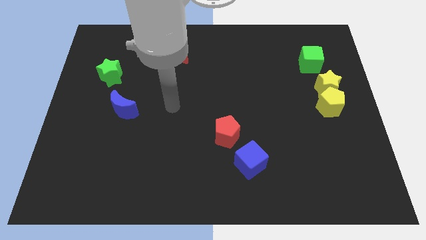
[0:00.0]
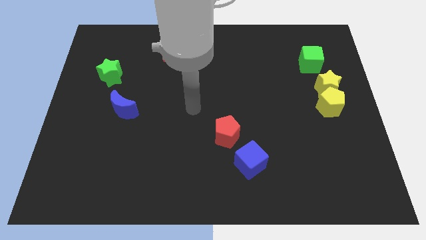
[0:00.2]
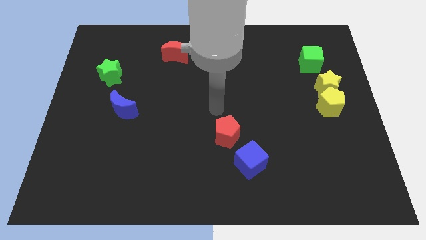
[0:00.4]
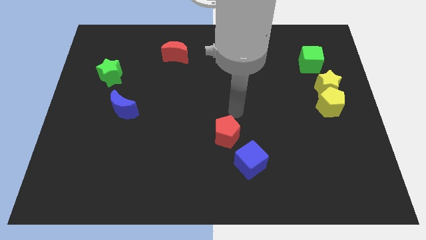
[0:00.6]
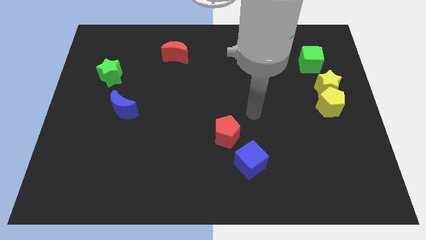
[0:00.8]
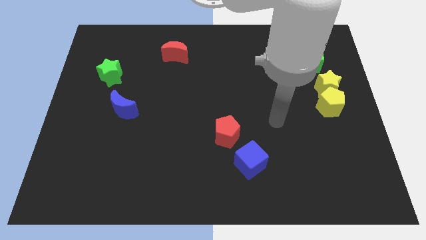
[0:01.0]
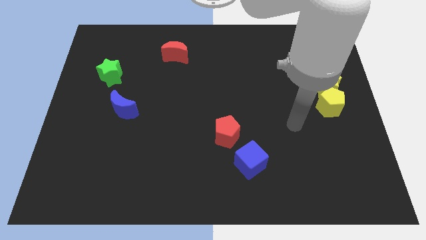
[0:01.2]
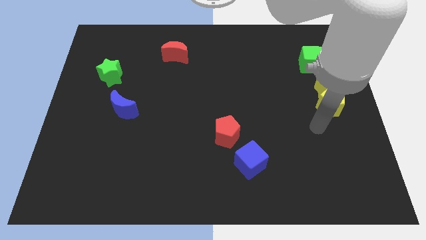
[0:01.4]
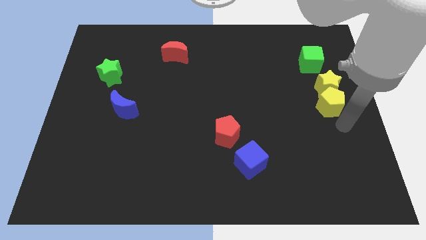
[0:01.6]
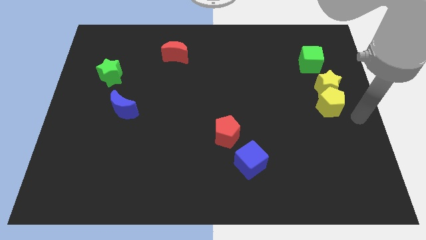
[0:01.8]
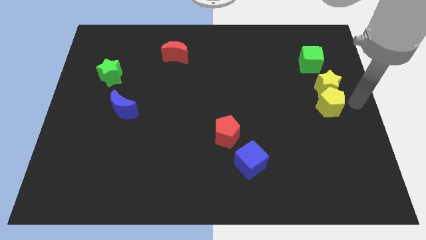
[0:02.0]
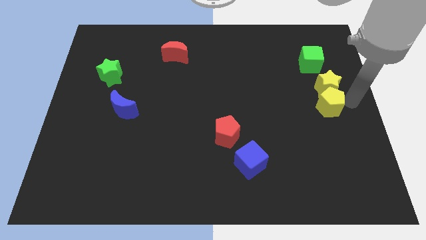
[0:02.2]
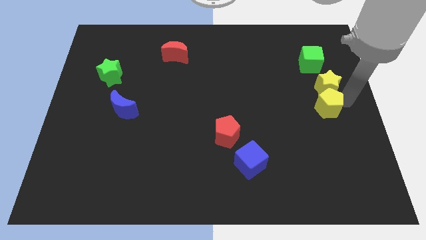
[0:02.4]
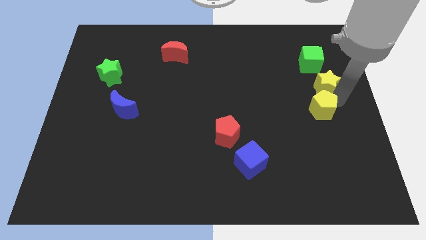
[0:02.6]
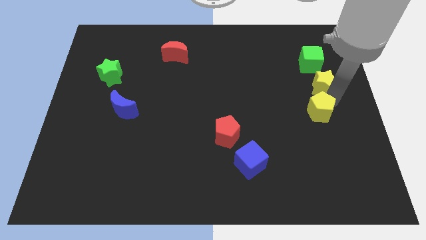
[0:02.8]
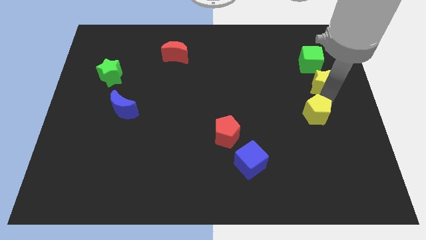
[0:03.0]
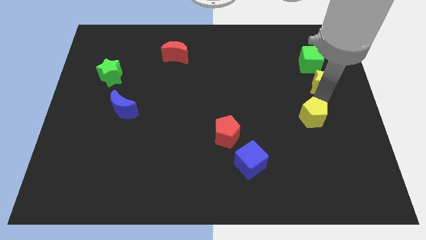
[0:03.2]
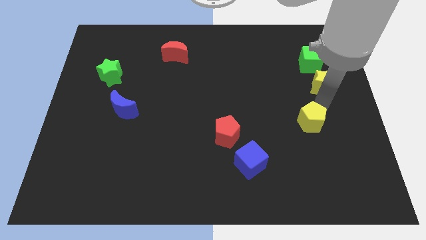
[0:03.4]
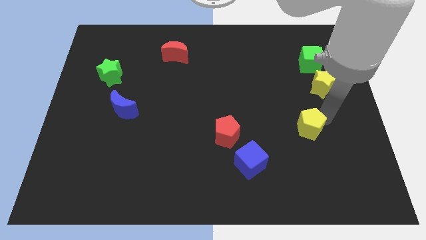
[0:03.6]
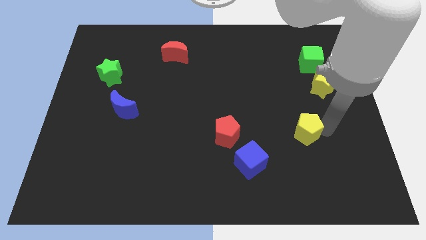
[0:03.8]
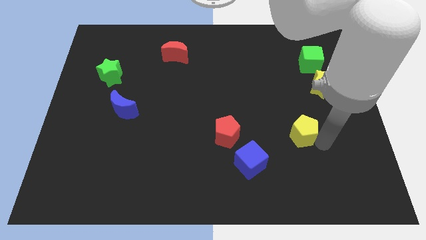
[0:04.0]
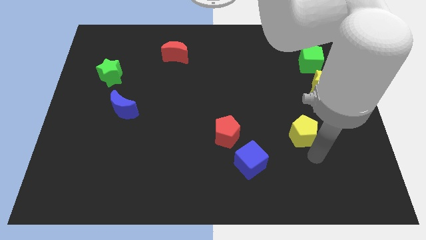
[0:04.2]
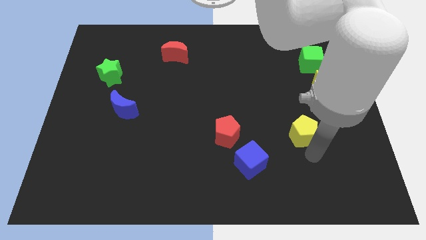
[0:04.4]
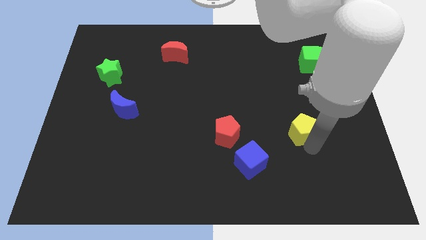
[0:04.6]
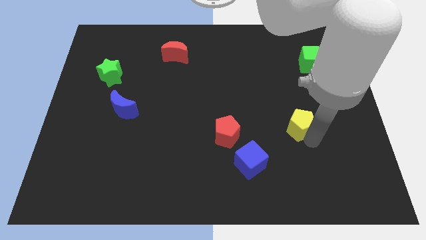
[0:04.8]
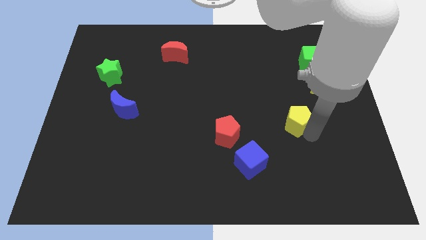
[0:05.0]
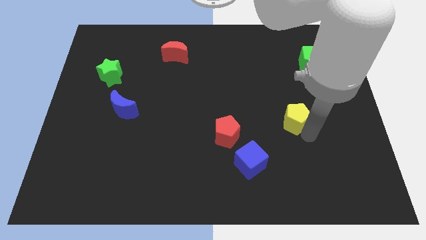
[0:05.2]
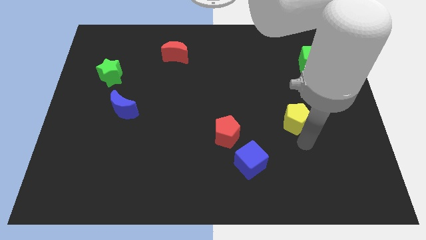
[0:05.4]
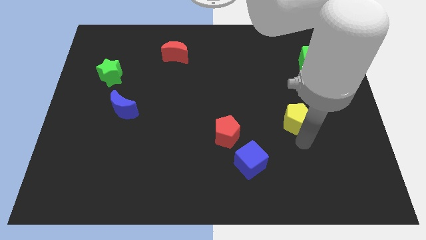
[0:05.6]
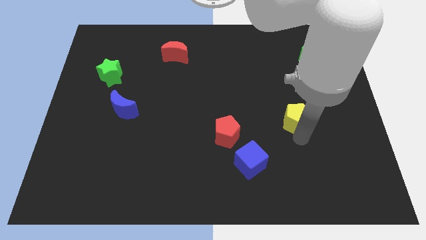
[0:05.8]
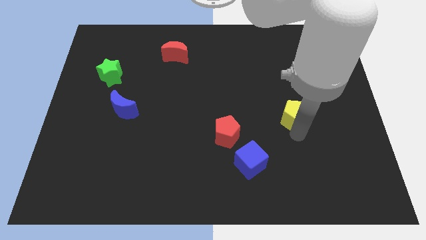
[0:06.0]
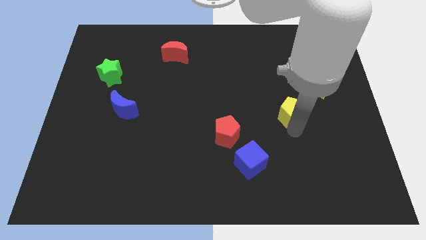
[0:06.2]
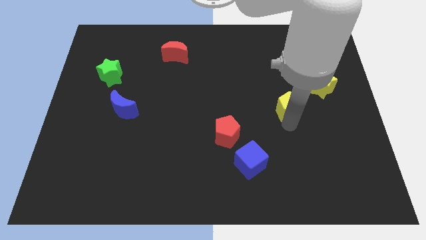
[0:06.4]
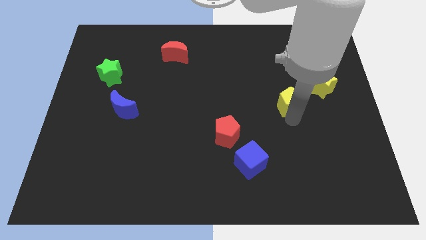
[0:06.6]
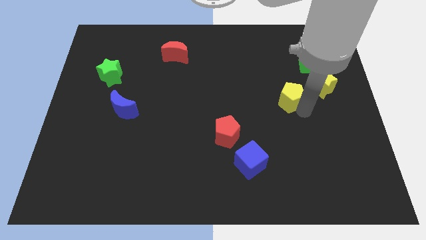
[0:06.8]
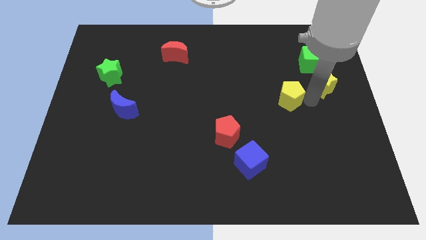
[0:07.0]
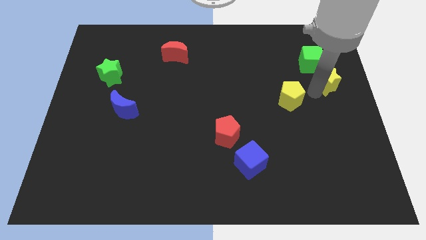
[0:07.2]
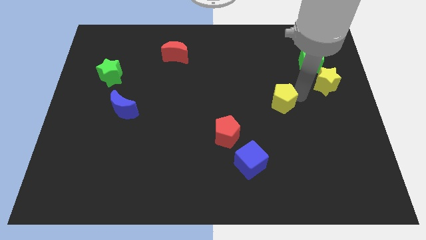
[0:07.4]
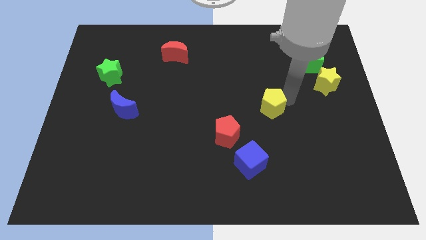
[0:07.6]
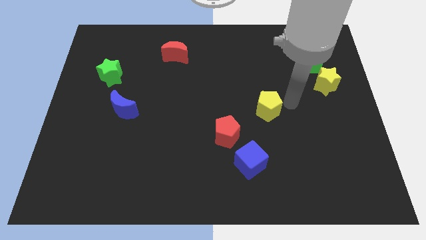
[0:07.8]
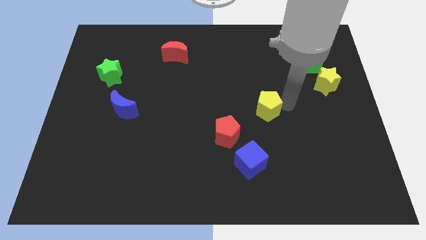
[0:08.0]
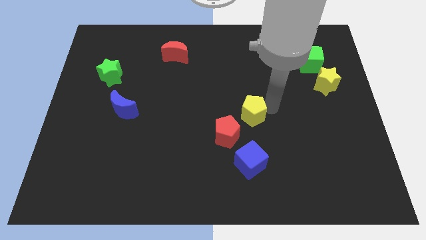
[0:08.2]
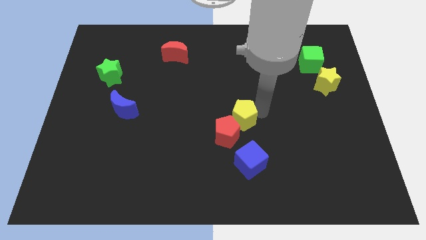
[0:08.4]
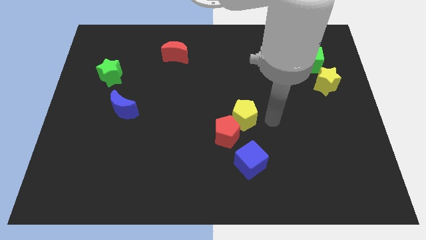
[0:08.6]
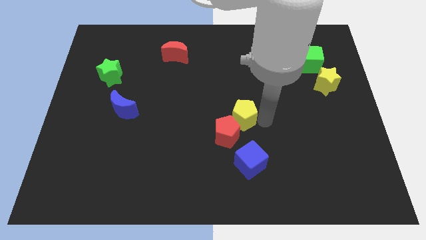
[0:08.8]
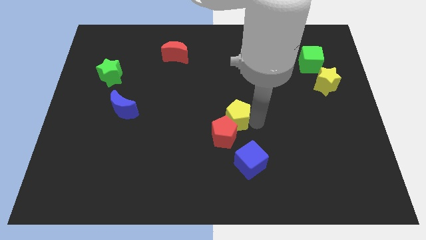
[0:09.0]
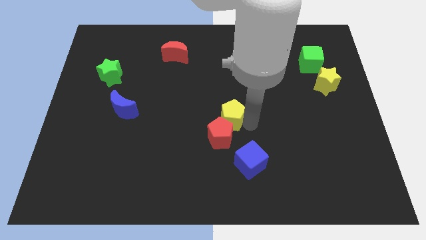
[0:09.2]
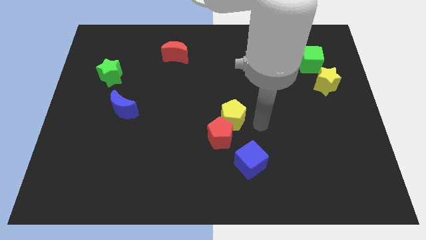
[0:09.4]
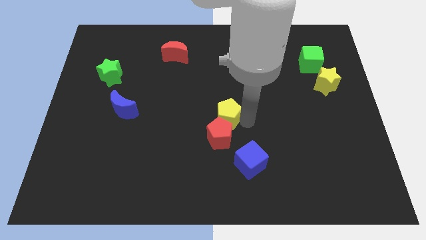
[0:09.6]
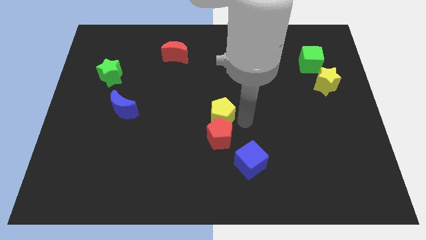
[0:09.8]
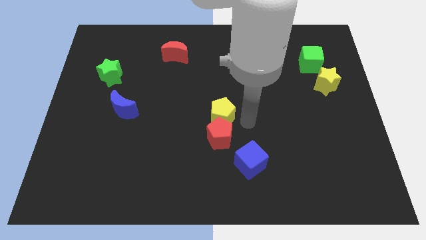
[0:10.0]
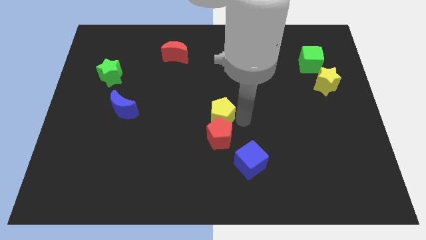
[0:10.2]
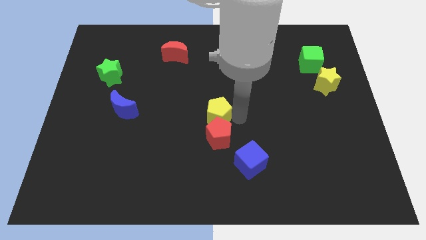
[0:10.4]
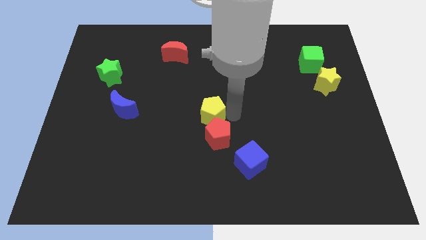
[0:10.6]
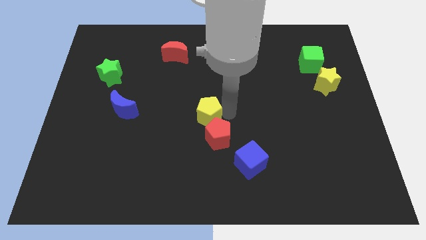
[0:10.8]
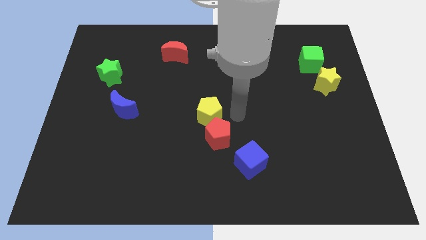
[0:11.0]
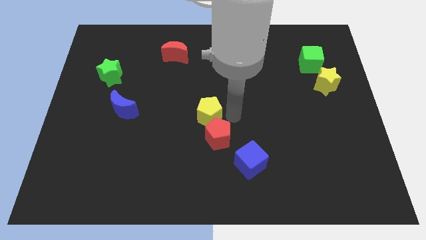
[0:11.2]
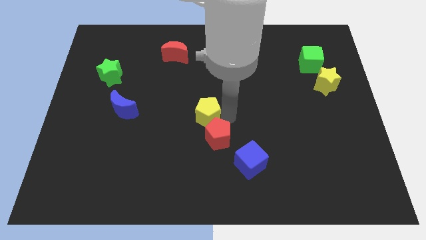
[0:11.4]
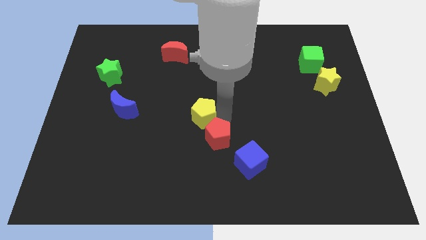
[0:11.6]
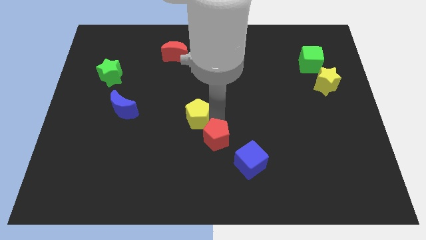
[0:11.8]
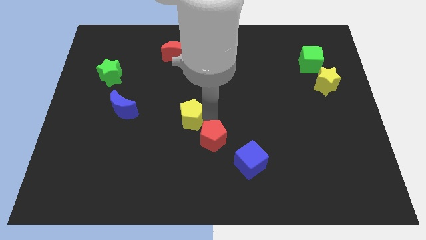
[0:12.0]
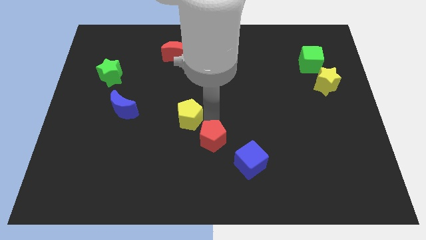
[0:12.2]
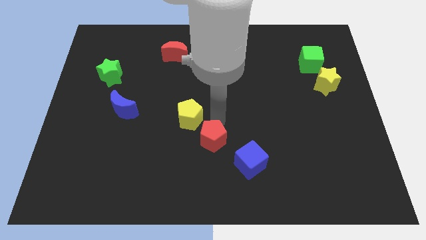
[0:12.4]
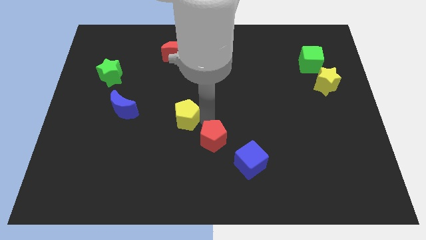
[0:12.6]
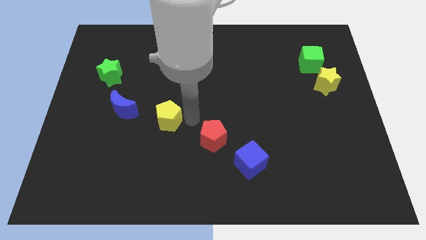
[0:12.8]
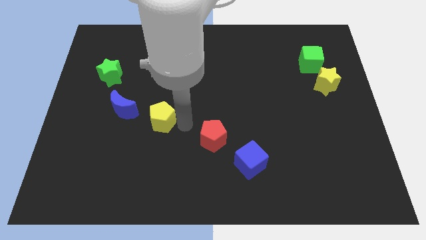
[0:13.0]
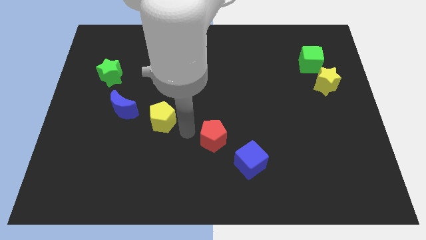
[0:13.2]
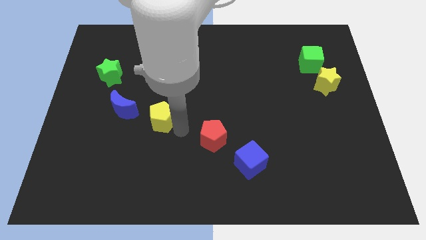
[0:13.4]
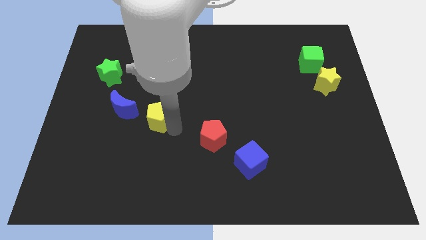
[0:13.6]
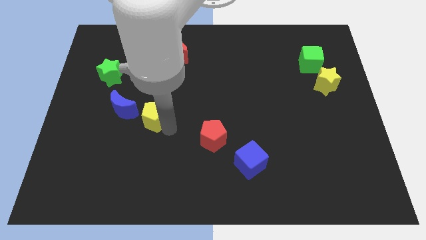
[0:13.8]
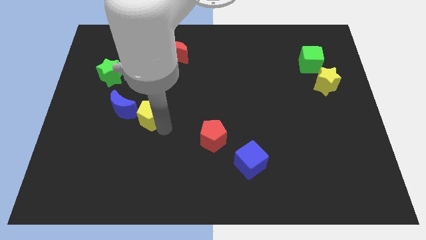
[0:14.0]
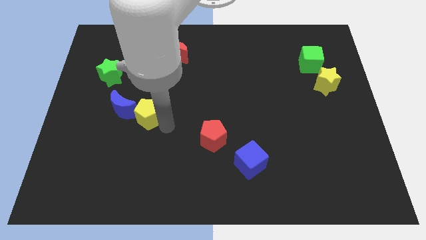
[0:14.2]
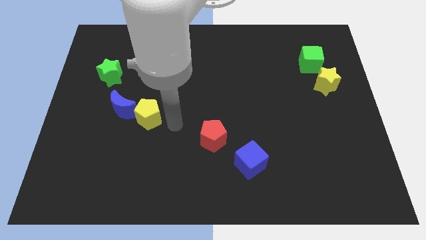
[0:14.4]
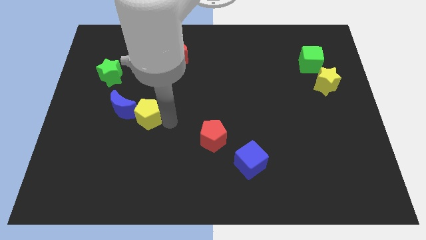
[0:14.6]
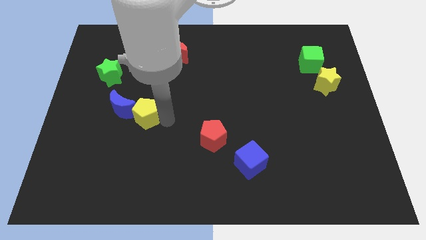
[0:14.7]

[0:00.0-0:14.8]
put the yellow pentagon to the blue moon
